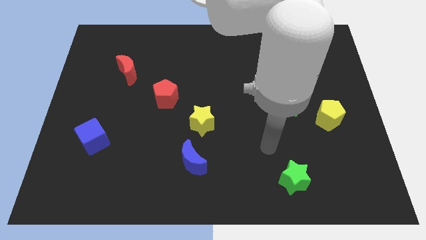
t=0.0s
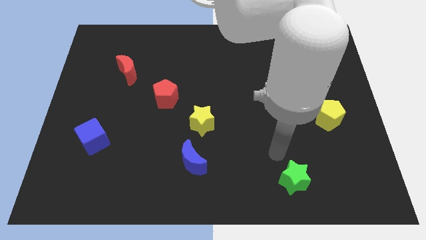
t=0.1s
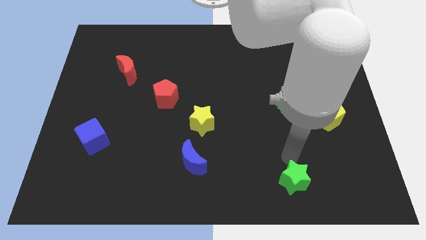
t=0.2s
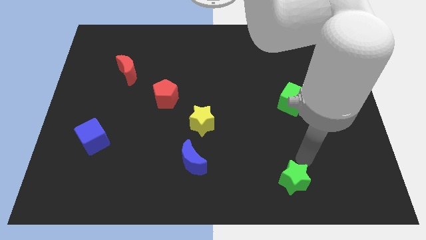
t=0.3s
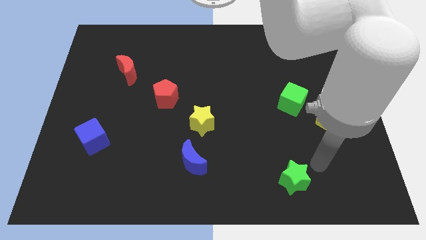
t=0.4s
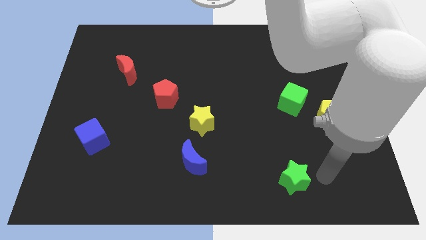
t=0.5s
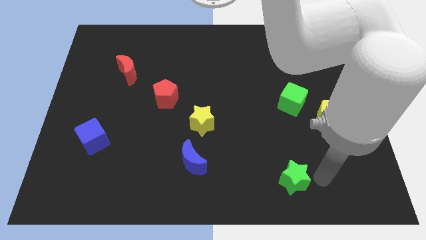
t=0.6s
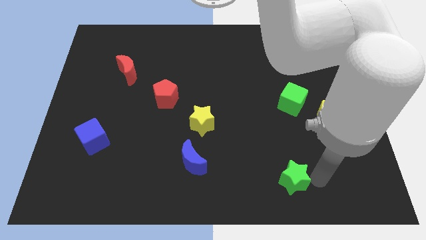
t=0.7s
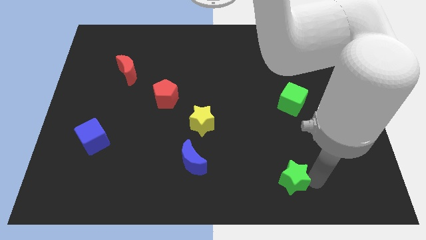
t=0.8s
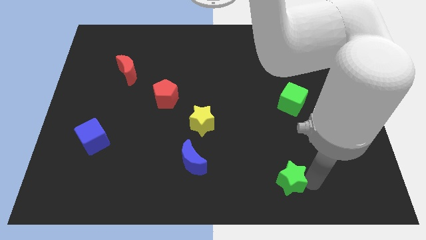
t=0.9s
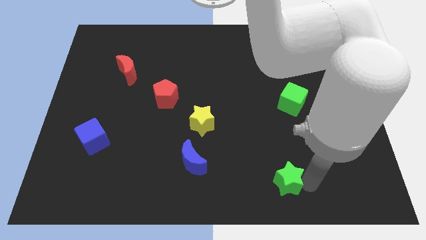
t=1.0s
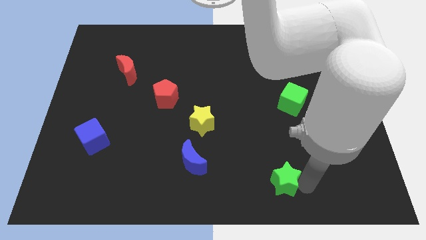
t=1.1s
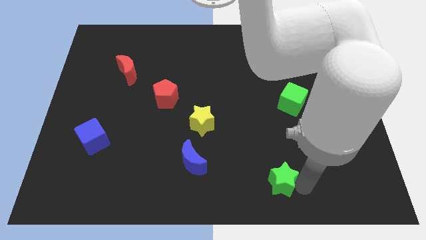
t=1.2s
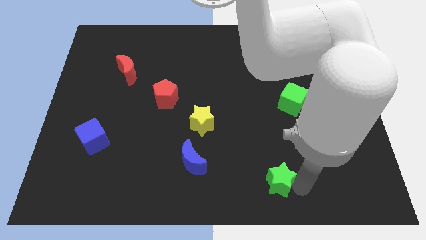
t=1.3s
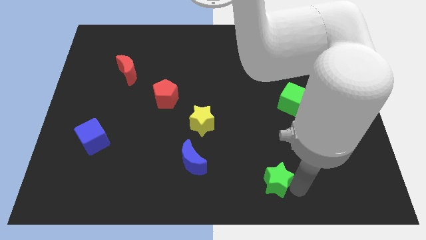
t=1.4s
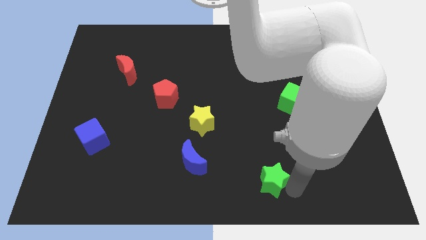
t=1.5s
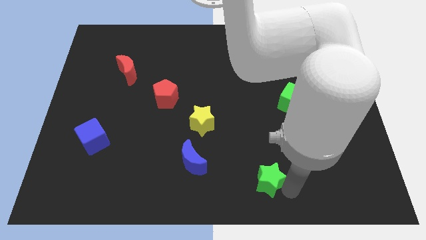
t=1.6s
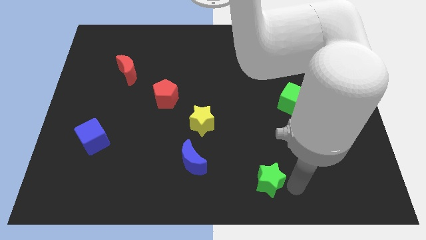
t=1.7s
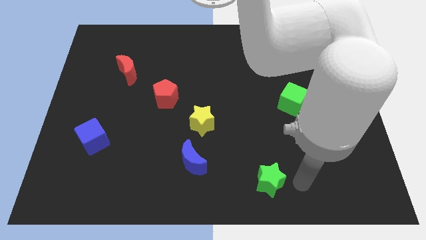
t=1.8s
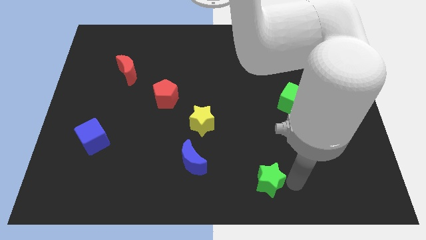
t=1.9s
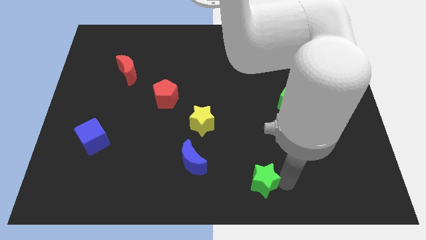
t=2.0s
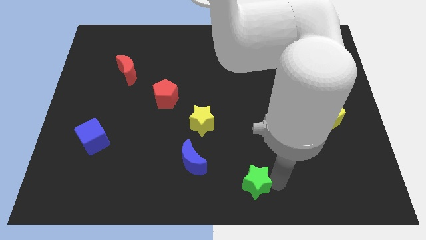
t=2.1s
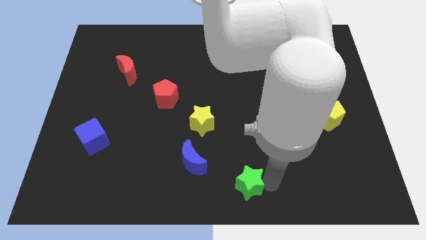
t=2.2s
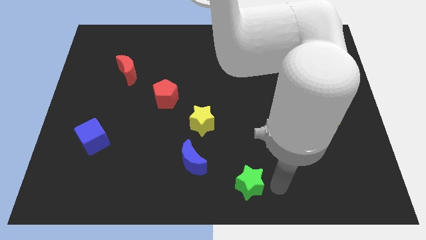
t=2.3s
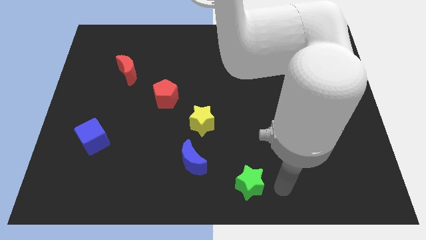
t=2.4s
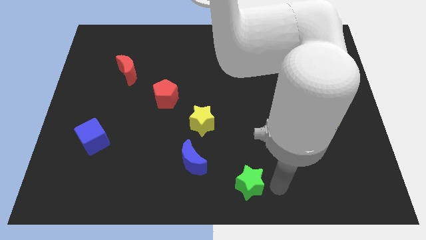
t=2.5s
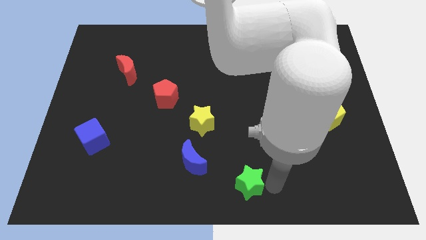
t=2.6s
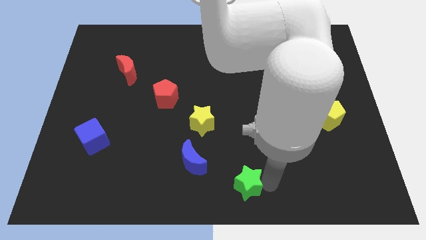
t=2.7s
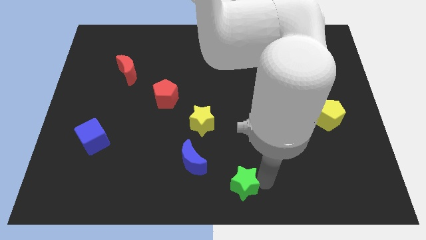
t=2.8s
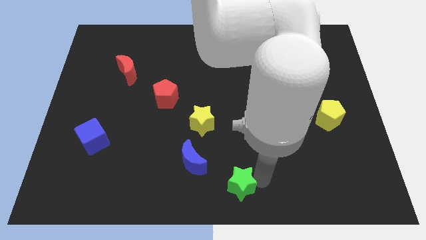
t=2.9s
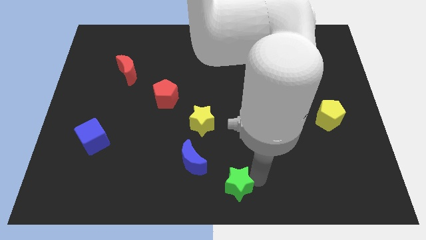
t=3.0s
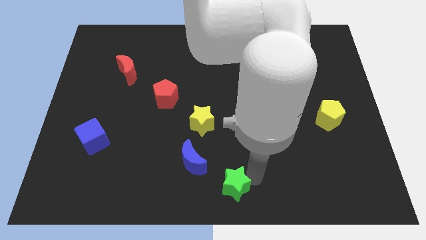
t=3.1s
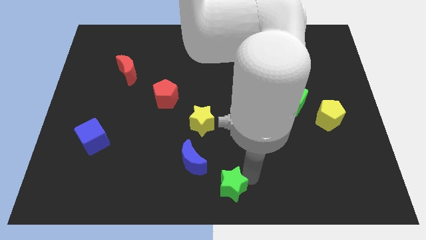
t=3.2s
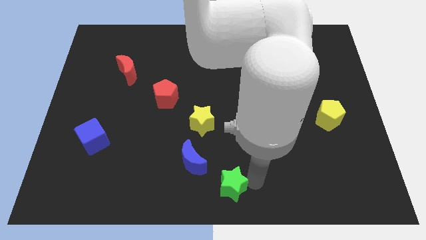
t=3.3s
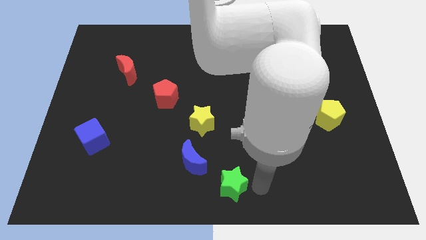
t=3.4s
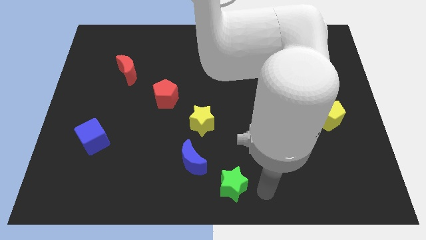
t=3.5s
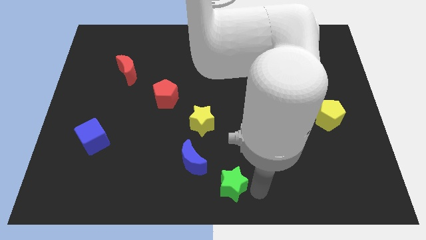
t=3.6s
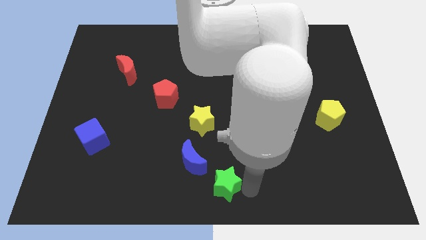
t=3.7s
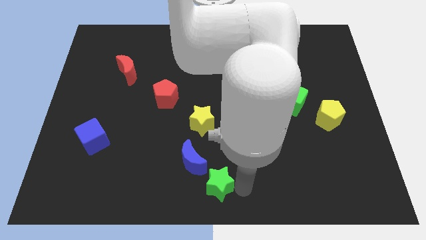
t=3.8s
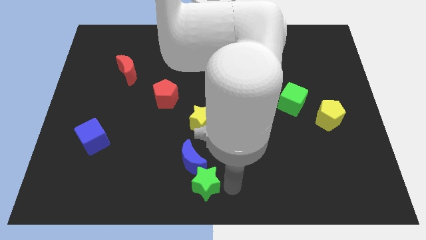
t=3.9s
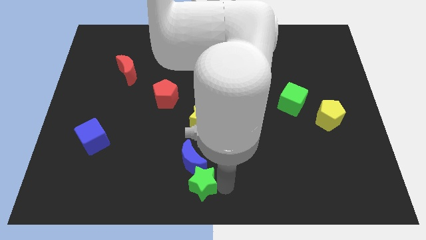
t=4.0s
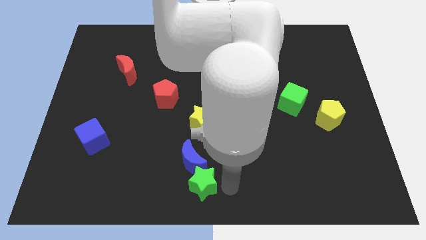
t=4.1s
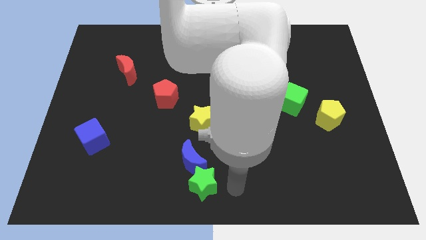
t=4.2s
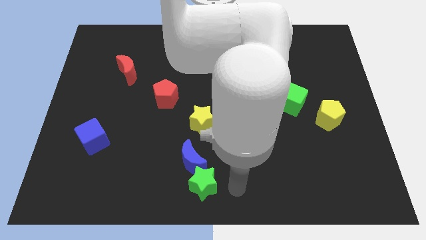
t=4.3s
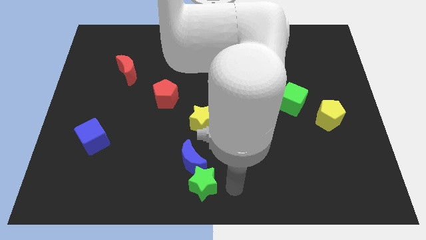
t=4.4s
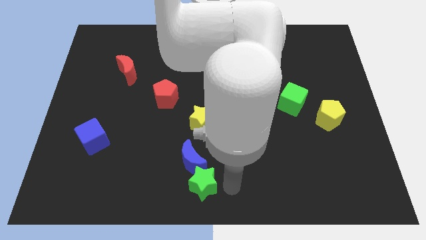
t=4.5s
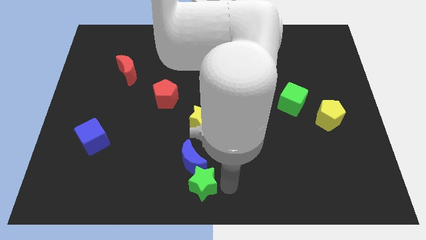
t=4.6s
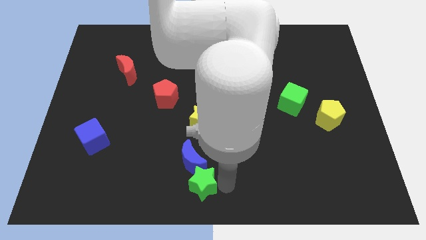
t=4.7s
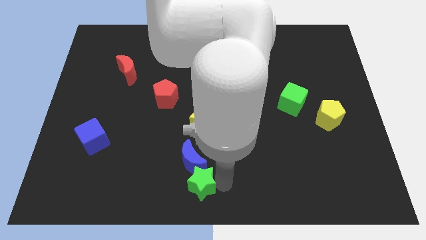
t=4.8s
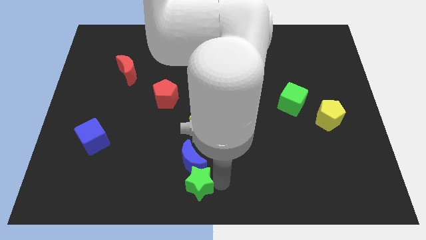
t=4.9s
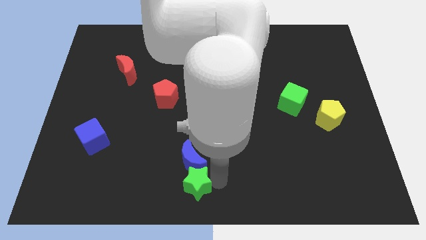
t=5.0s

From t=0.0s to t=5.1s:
push the green star diagonally down and to the left of the blue moon

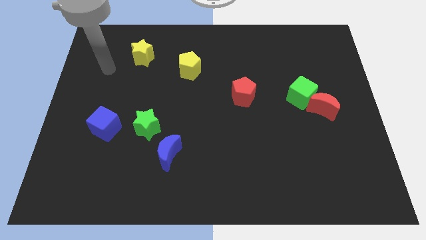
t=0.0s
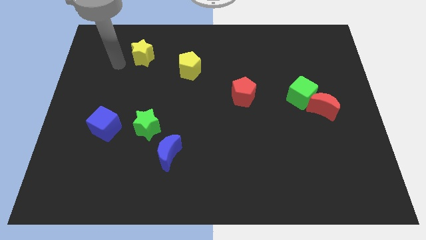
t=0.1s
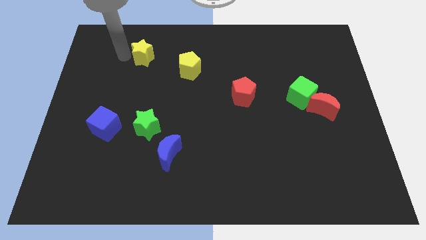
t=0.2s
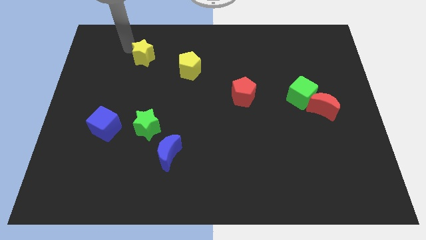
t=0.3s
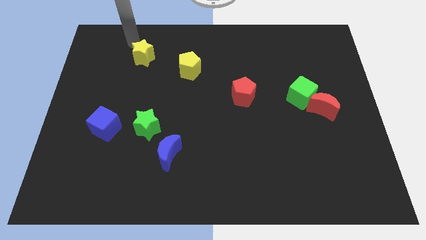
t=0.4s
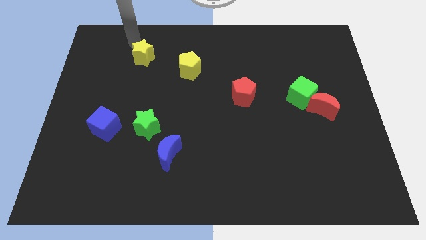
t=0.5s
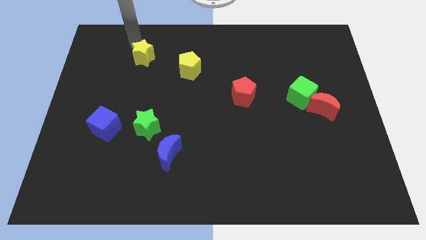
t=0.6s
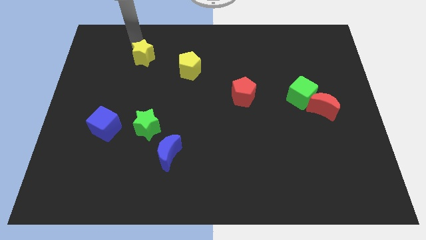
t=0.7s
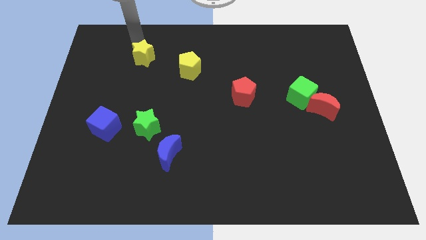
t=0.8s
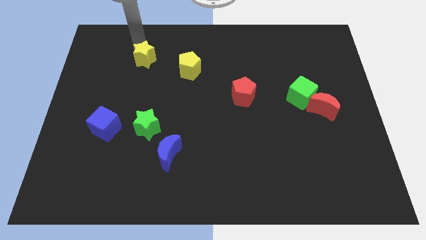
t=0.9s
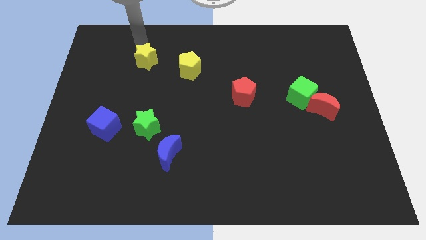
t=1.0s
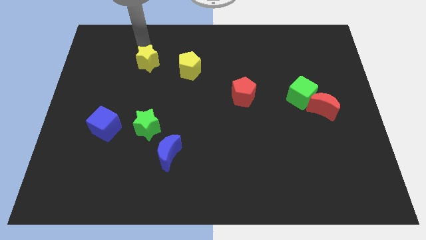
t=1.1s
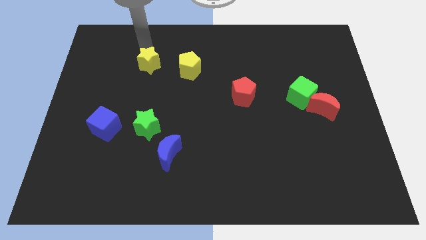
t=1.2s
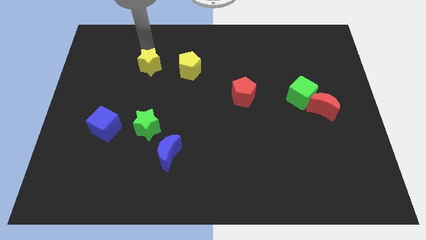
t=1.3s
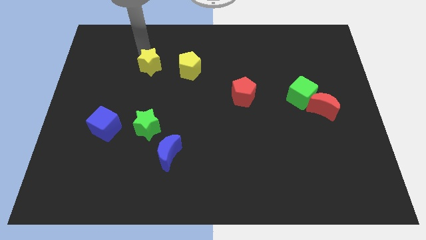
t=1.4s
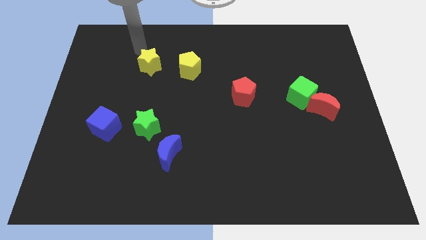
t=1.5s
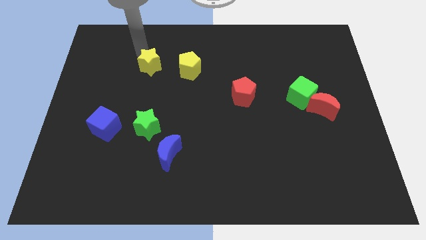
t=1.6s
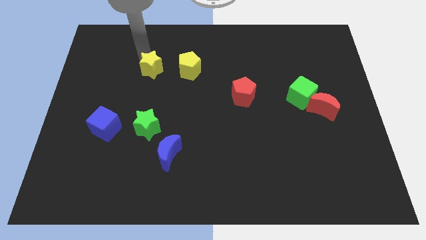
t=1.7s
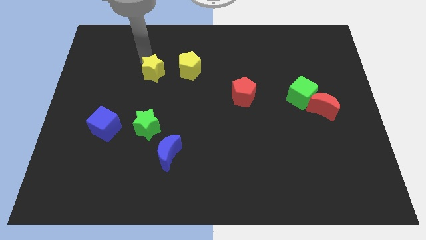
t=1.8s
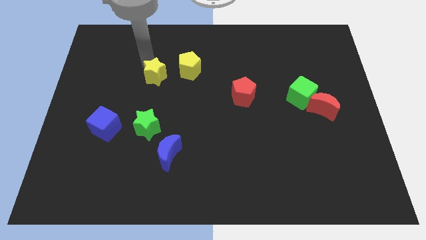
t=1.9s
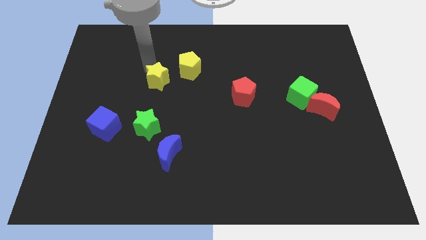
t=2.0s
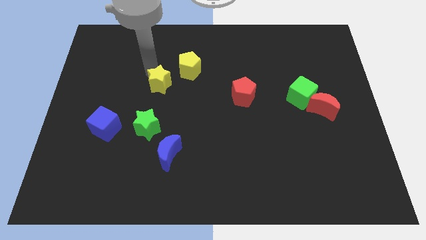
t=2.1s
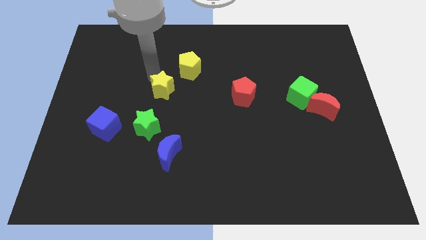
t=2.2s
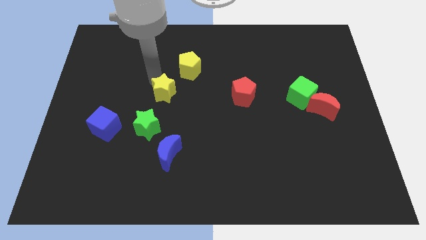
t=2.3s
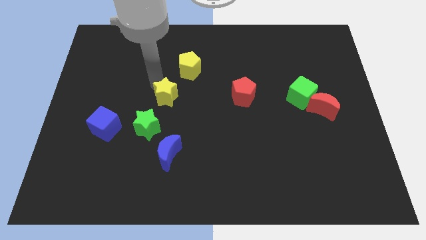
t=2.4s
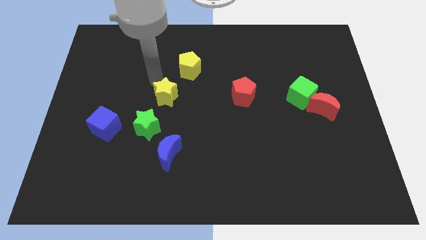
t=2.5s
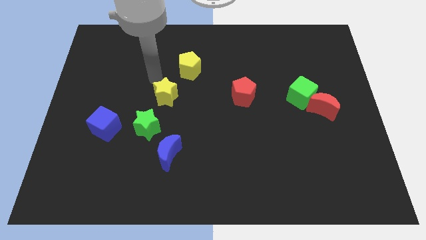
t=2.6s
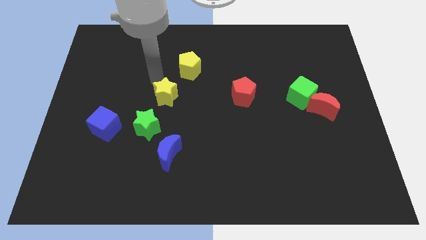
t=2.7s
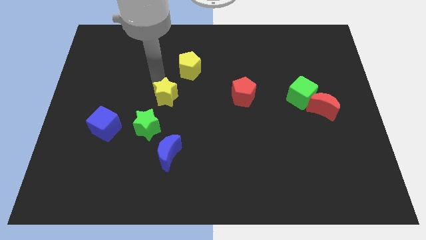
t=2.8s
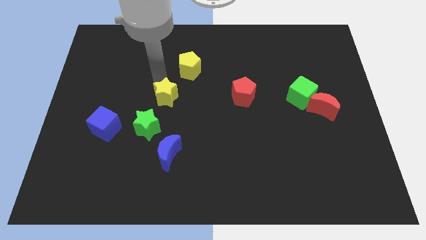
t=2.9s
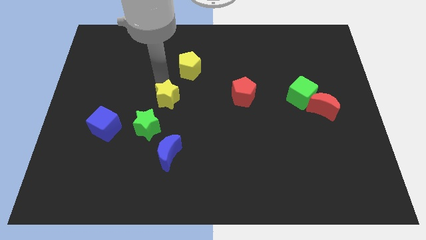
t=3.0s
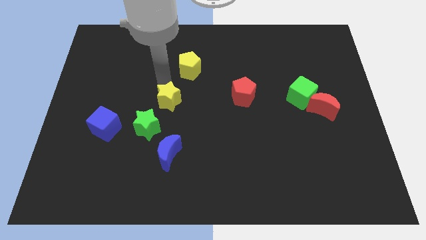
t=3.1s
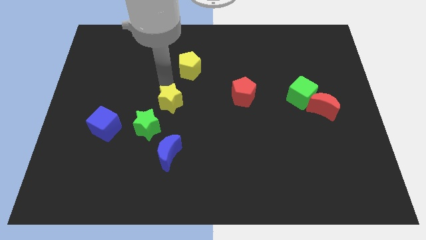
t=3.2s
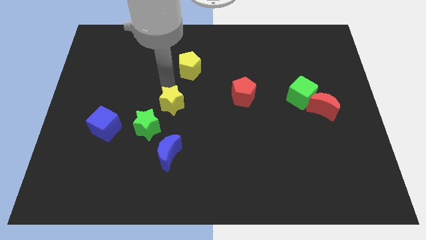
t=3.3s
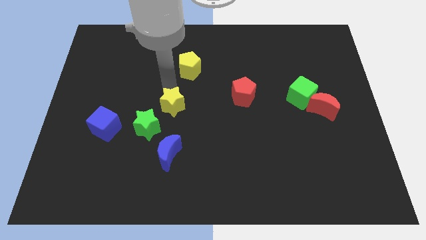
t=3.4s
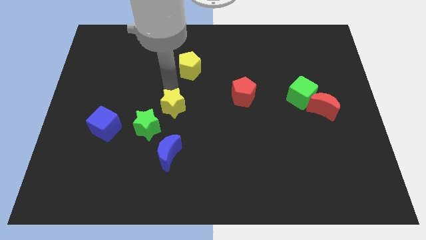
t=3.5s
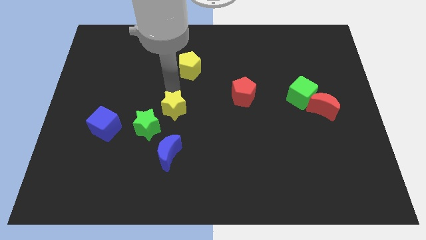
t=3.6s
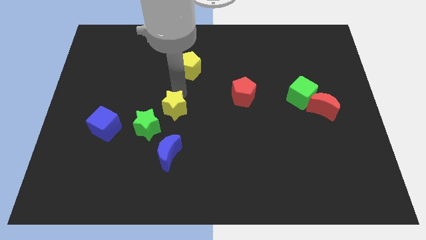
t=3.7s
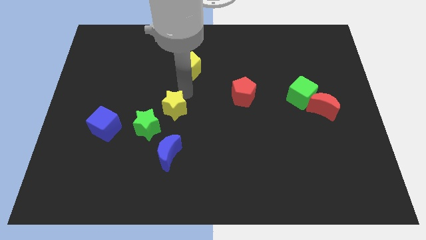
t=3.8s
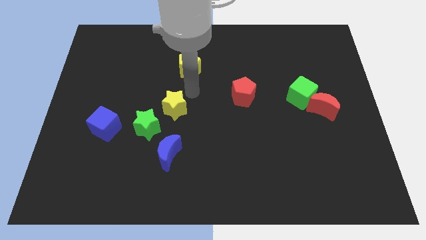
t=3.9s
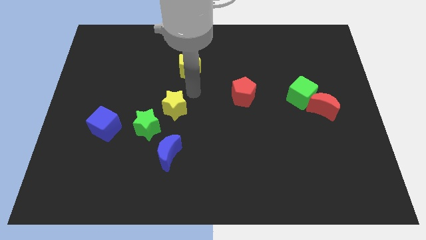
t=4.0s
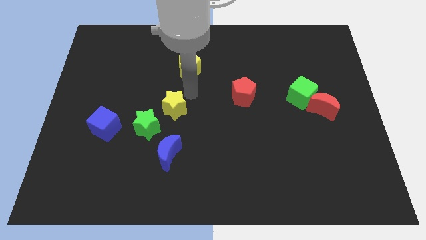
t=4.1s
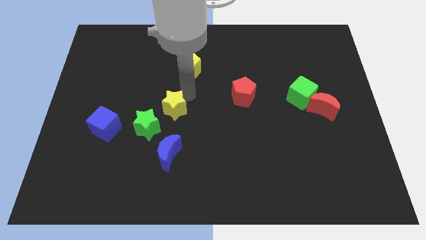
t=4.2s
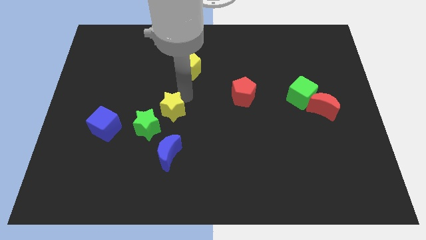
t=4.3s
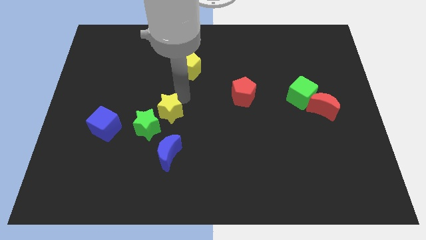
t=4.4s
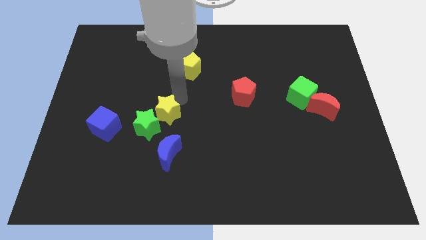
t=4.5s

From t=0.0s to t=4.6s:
move the yellow star to the right of the blue cube
